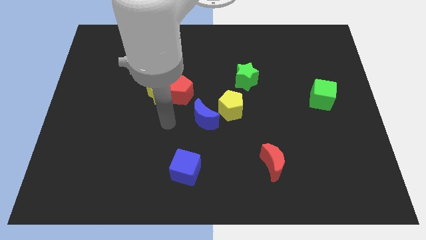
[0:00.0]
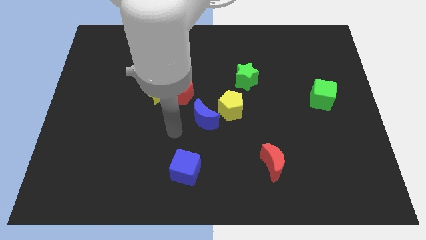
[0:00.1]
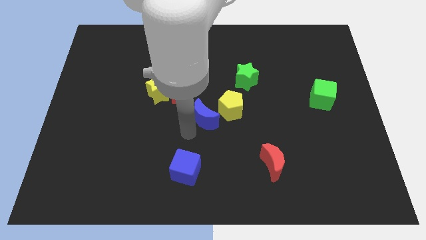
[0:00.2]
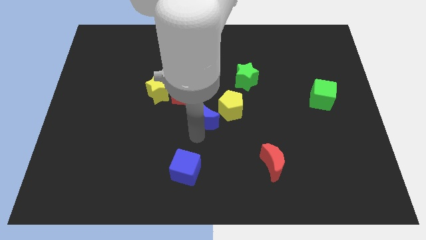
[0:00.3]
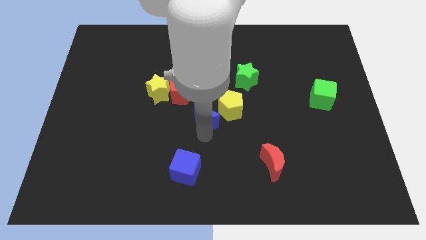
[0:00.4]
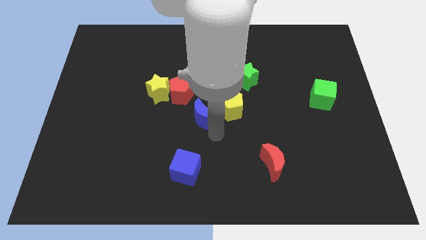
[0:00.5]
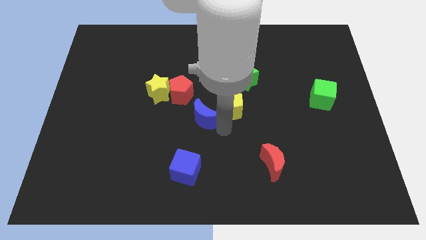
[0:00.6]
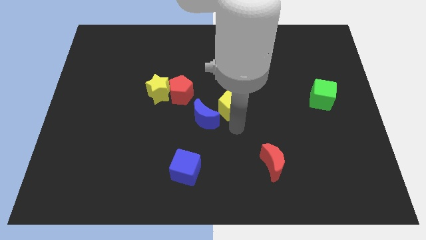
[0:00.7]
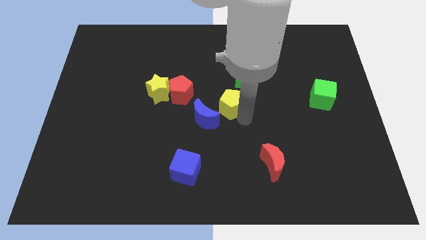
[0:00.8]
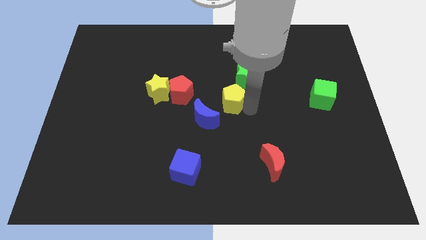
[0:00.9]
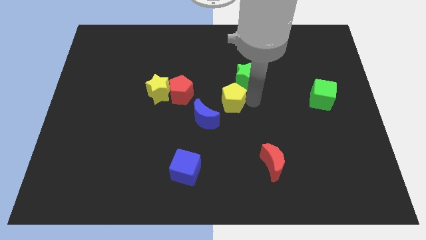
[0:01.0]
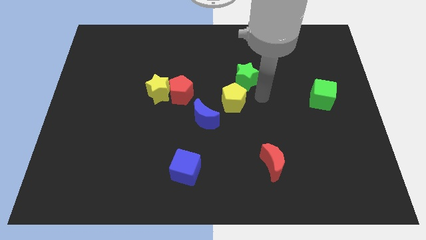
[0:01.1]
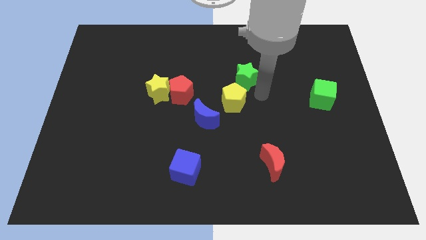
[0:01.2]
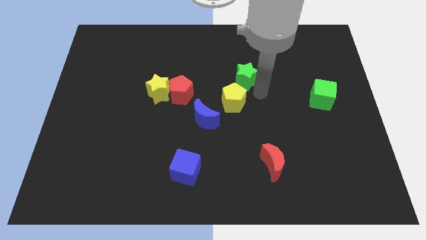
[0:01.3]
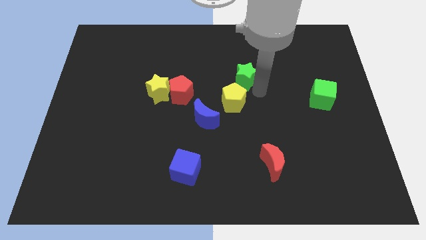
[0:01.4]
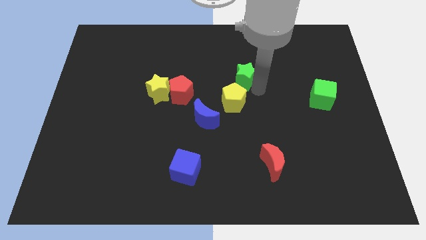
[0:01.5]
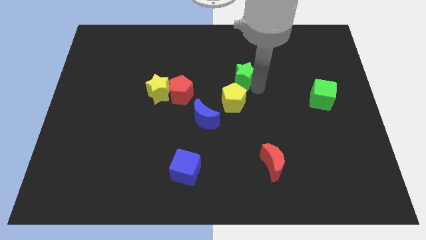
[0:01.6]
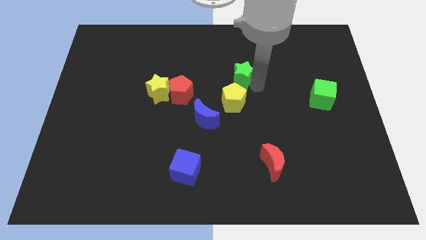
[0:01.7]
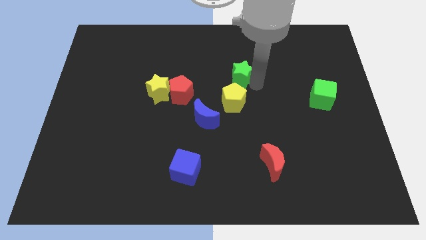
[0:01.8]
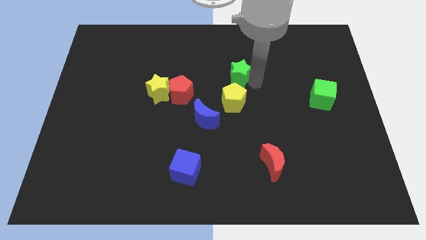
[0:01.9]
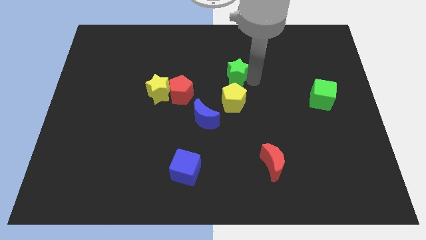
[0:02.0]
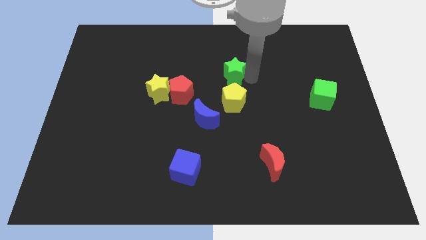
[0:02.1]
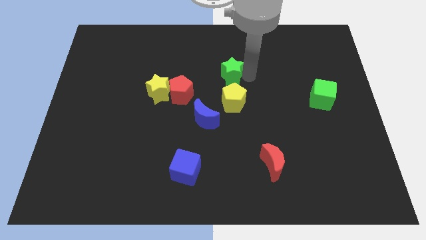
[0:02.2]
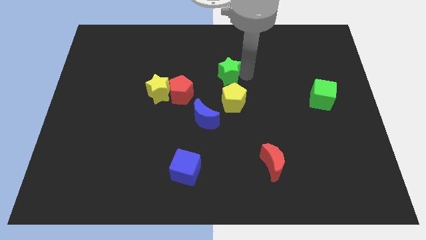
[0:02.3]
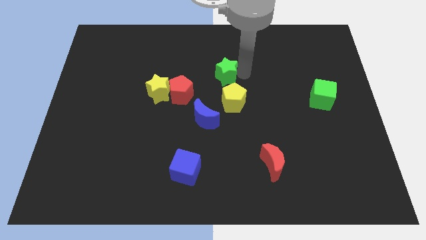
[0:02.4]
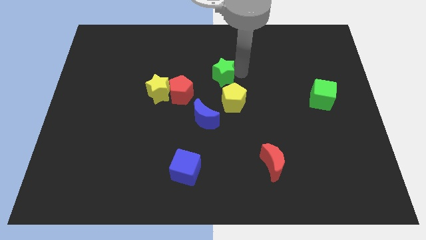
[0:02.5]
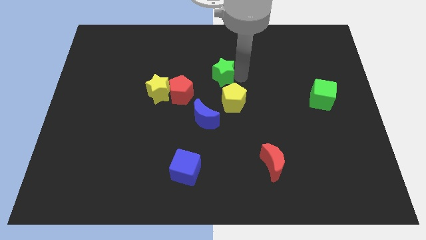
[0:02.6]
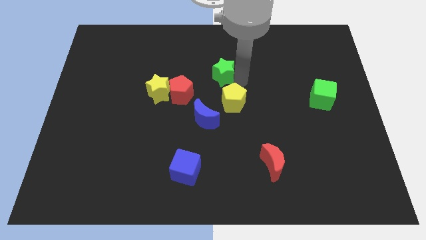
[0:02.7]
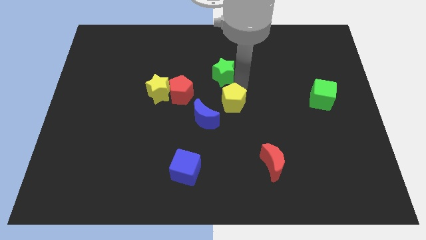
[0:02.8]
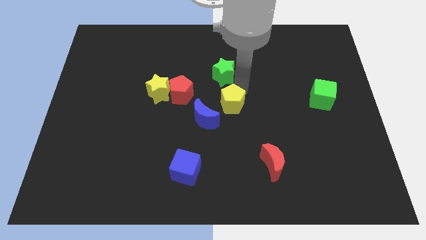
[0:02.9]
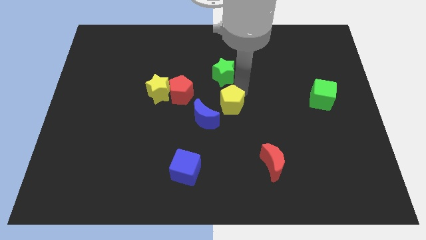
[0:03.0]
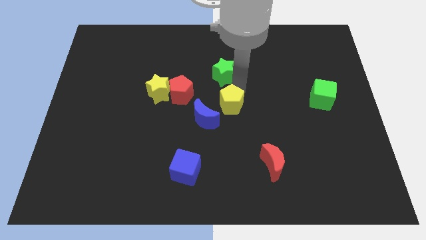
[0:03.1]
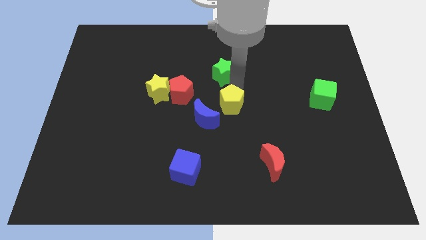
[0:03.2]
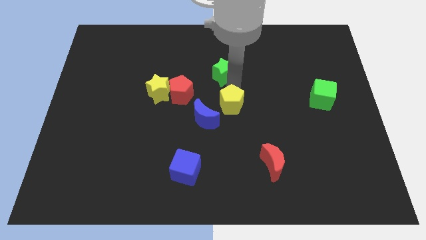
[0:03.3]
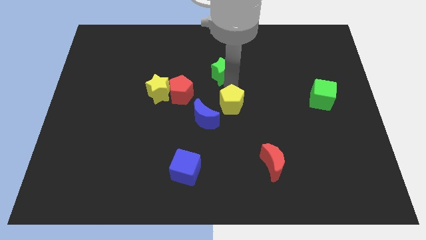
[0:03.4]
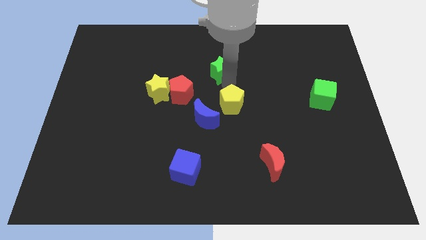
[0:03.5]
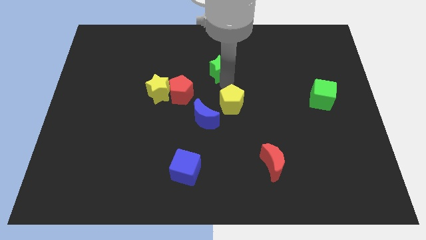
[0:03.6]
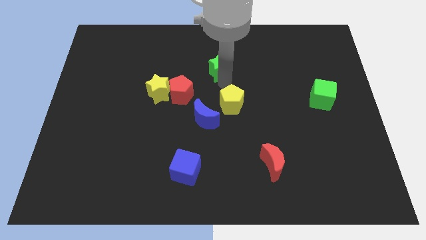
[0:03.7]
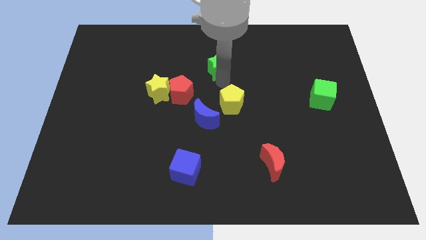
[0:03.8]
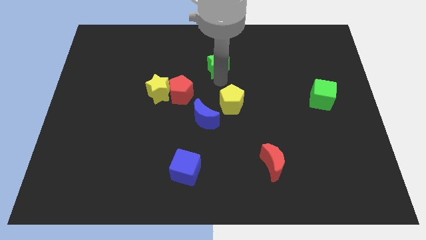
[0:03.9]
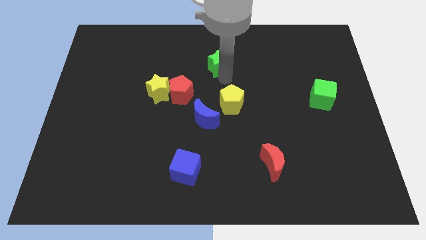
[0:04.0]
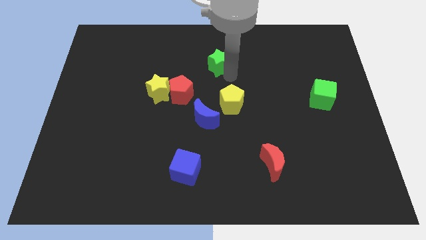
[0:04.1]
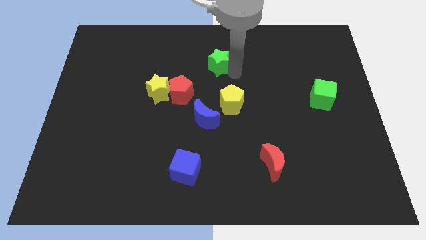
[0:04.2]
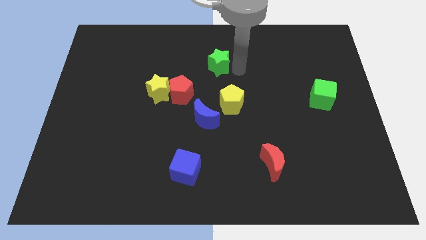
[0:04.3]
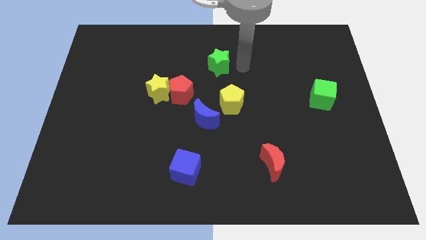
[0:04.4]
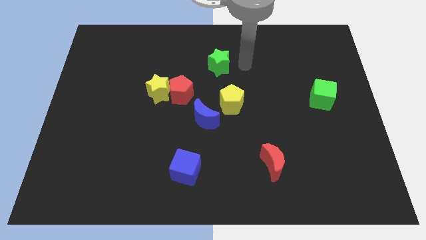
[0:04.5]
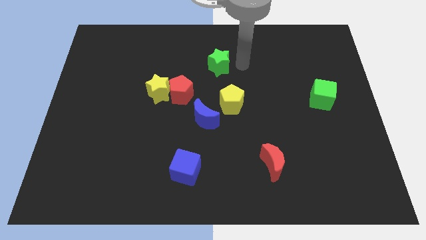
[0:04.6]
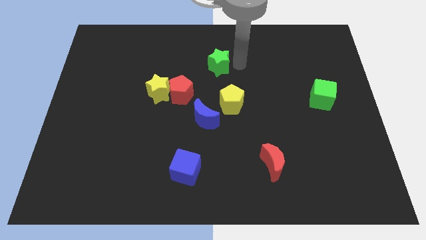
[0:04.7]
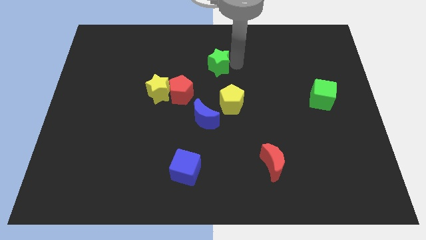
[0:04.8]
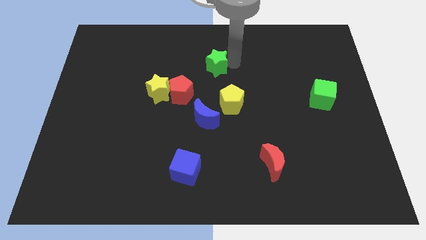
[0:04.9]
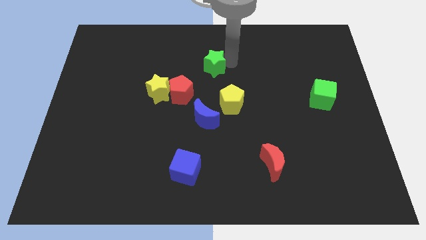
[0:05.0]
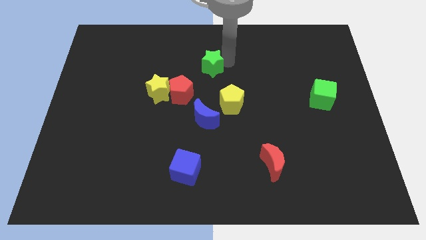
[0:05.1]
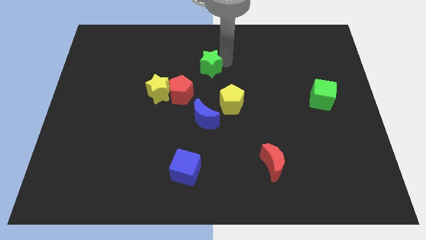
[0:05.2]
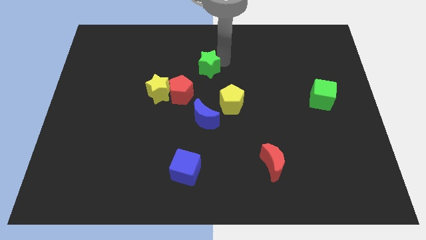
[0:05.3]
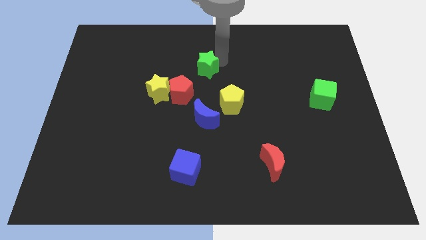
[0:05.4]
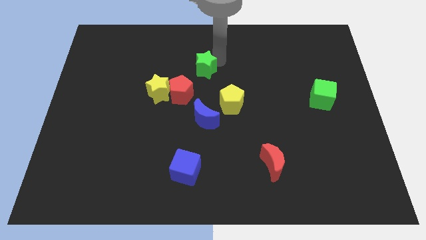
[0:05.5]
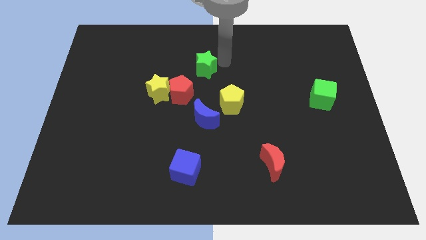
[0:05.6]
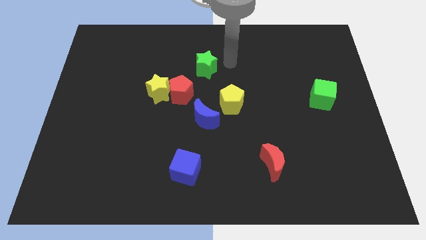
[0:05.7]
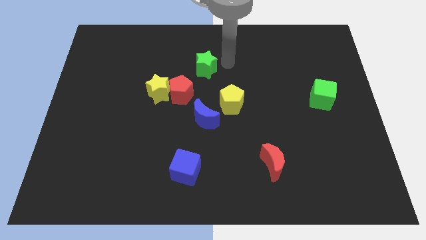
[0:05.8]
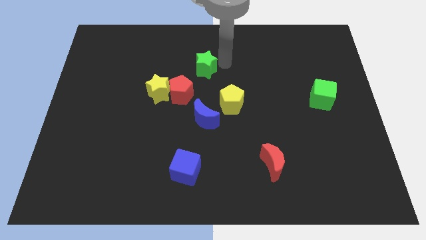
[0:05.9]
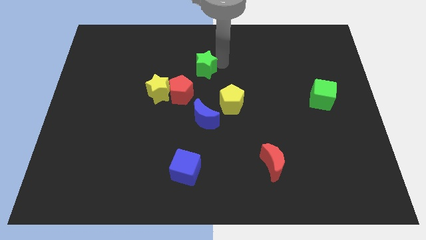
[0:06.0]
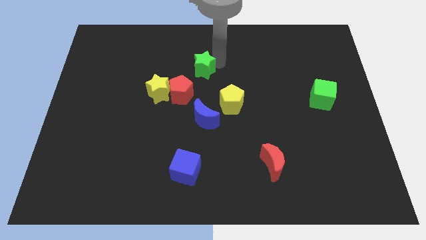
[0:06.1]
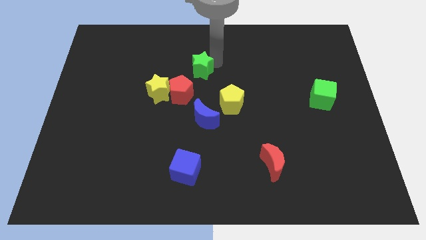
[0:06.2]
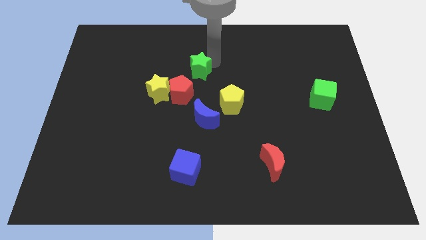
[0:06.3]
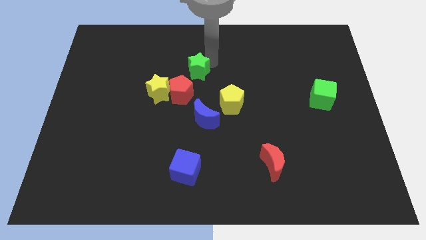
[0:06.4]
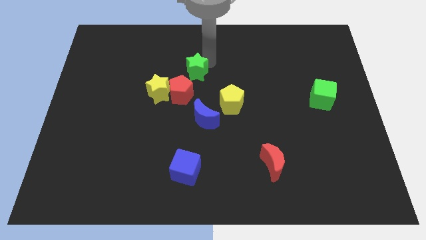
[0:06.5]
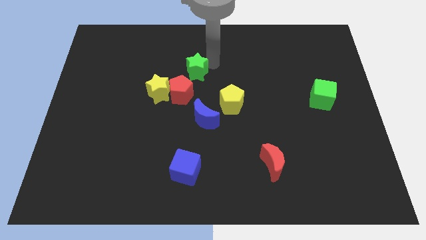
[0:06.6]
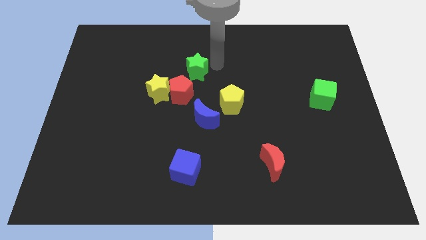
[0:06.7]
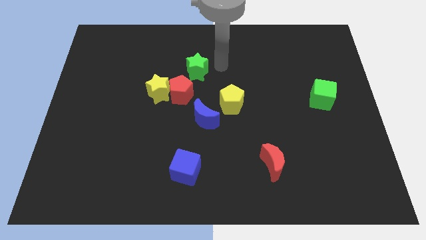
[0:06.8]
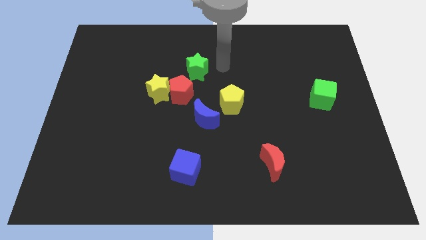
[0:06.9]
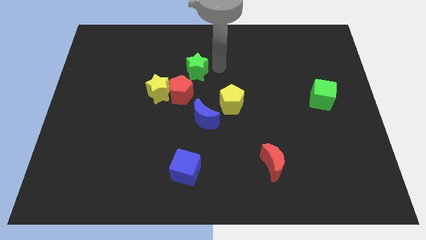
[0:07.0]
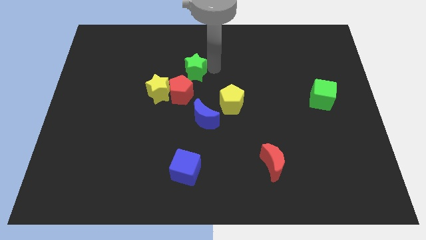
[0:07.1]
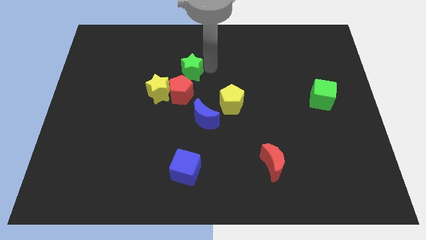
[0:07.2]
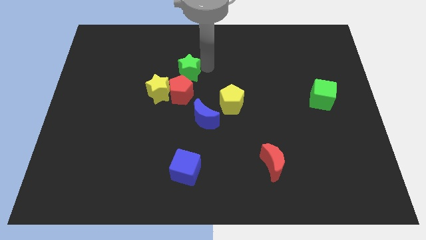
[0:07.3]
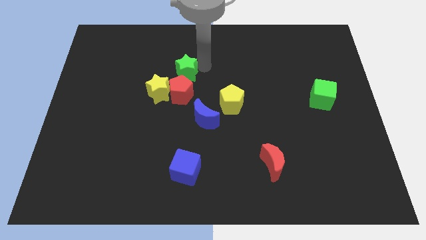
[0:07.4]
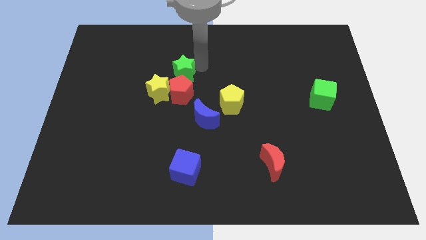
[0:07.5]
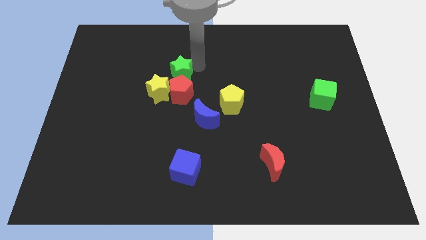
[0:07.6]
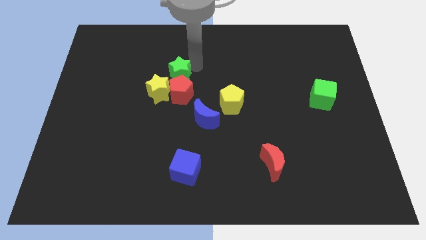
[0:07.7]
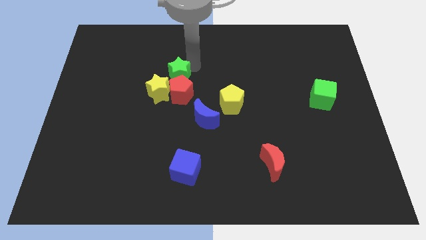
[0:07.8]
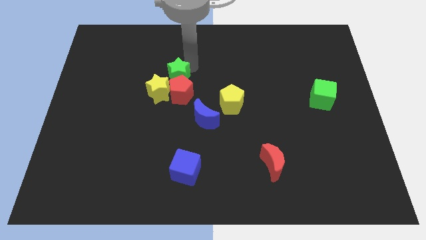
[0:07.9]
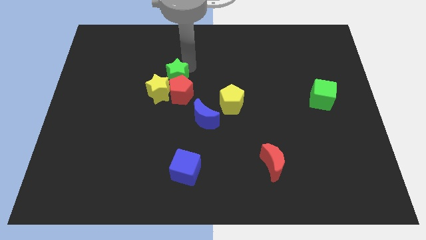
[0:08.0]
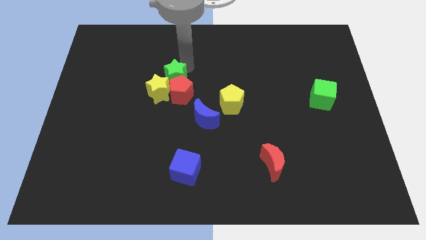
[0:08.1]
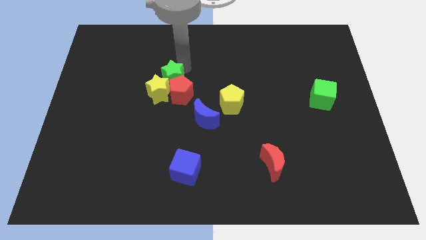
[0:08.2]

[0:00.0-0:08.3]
slide the green star next to the yellow star
